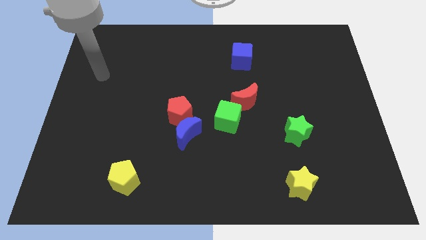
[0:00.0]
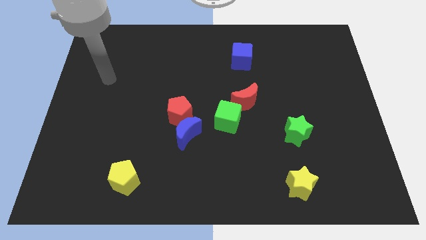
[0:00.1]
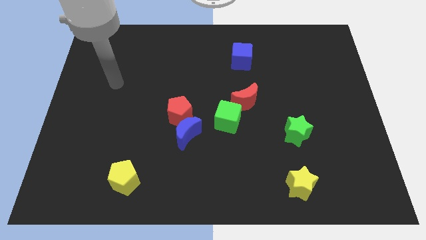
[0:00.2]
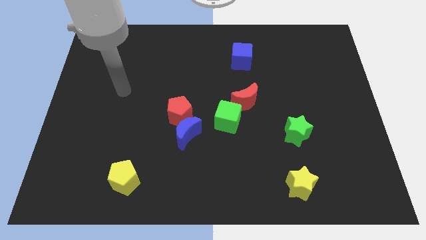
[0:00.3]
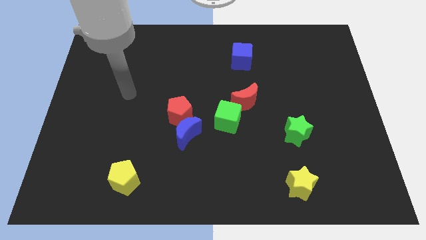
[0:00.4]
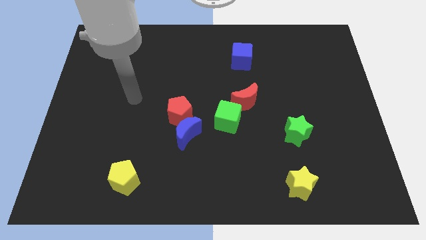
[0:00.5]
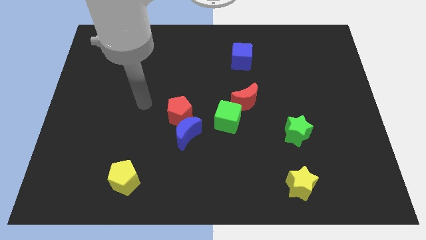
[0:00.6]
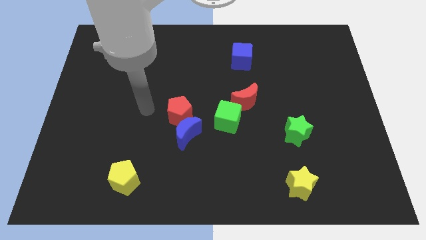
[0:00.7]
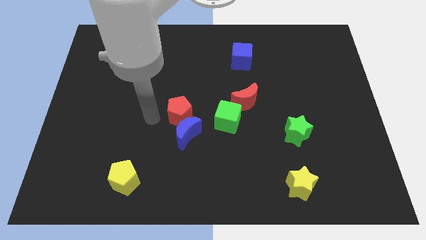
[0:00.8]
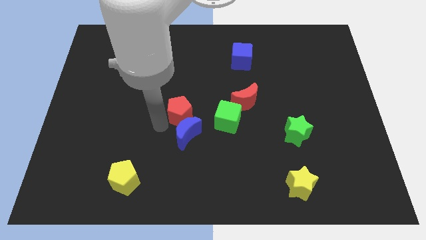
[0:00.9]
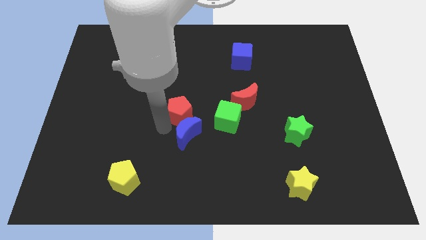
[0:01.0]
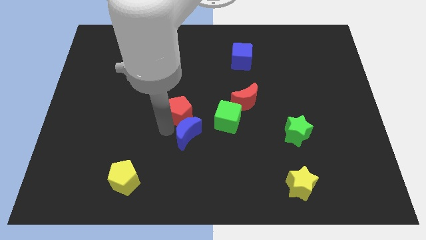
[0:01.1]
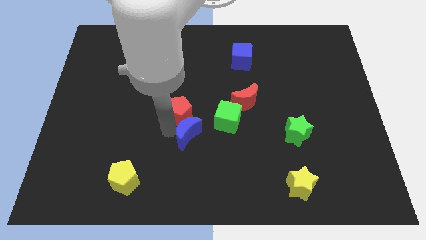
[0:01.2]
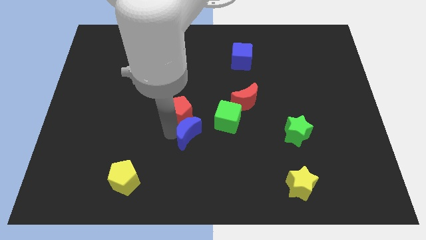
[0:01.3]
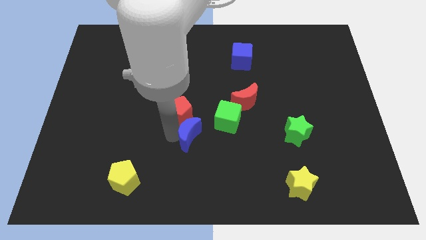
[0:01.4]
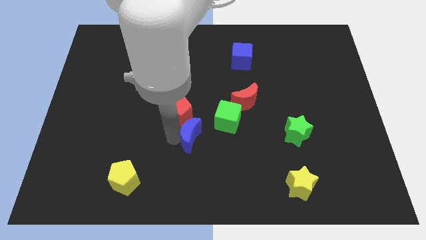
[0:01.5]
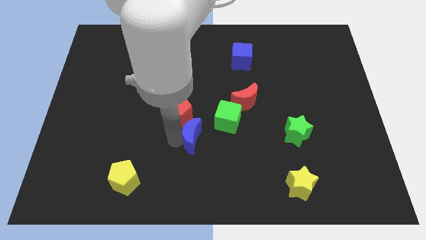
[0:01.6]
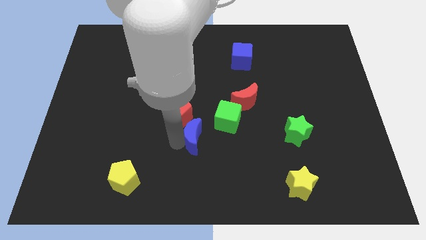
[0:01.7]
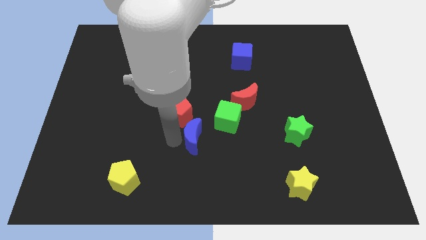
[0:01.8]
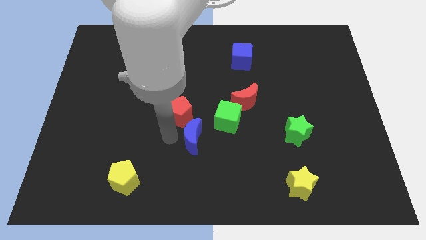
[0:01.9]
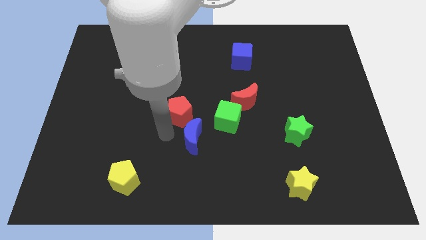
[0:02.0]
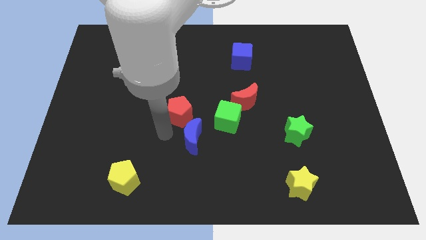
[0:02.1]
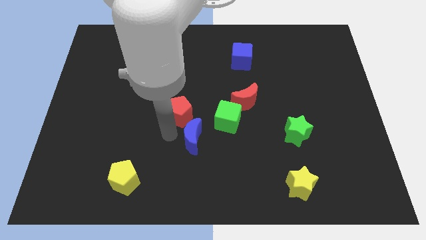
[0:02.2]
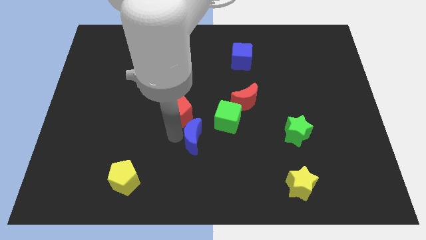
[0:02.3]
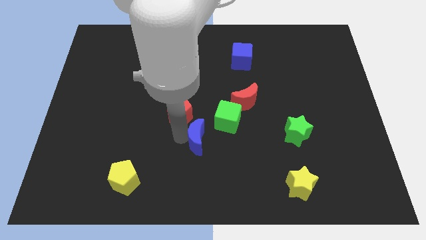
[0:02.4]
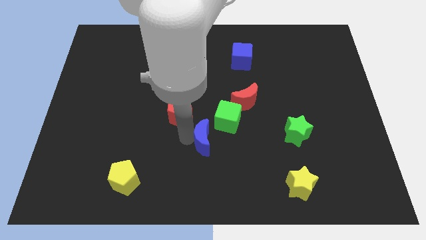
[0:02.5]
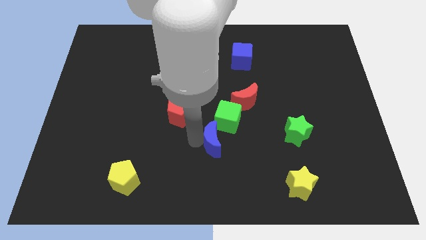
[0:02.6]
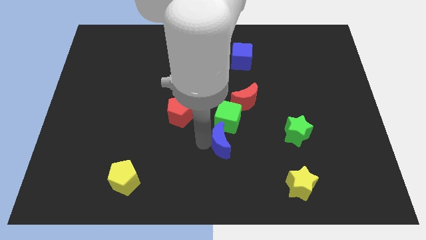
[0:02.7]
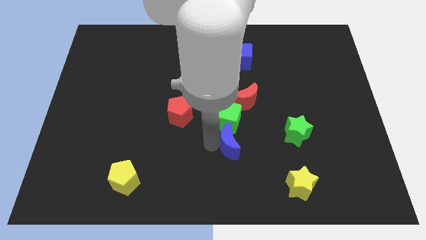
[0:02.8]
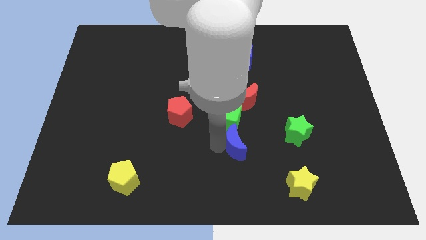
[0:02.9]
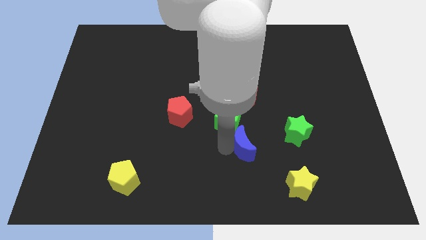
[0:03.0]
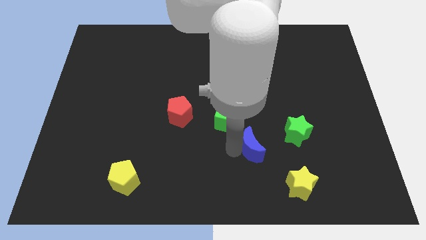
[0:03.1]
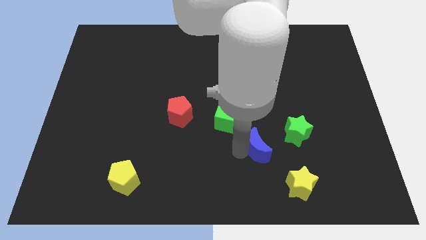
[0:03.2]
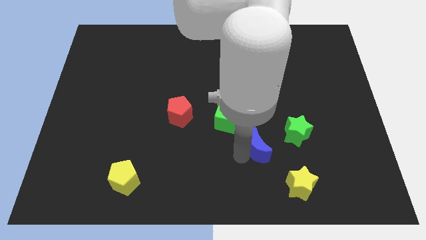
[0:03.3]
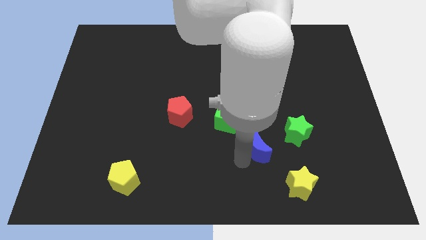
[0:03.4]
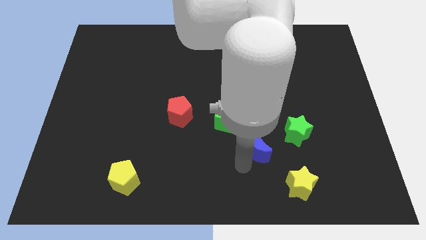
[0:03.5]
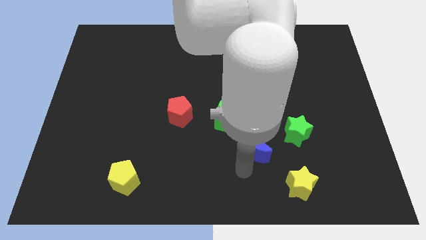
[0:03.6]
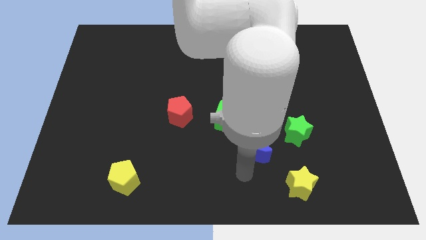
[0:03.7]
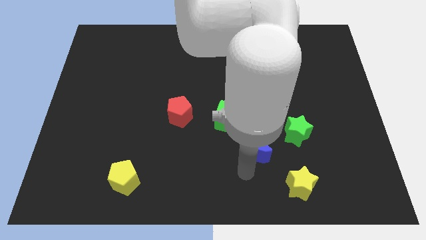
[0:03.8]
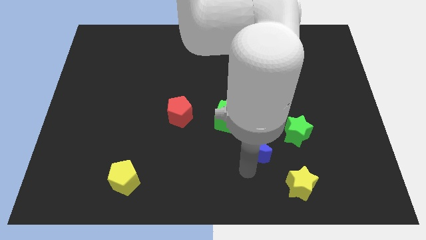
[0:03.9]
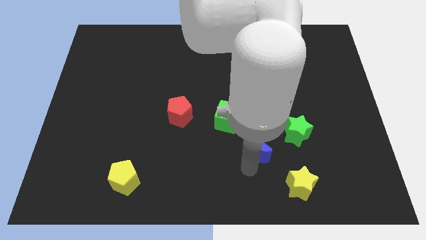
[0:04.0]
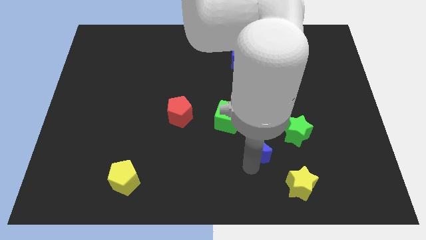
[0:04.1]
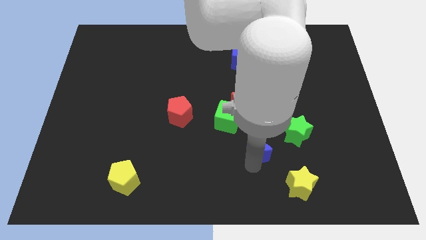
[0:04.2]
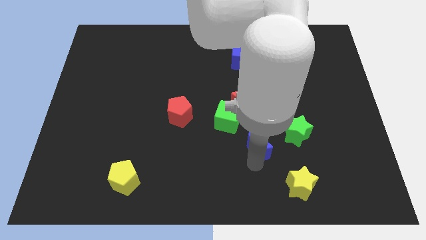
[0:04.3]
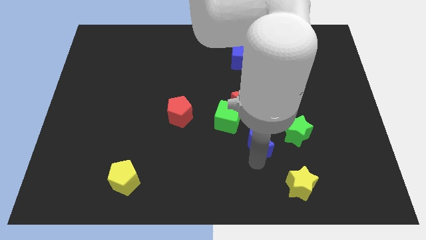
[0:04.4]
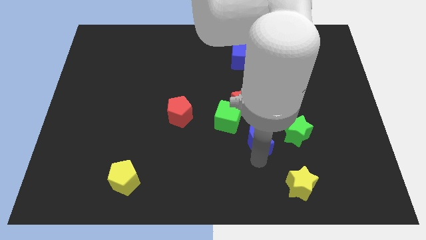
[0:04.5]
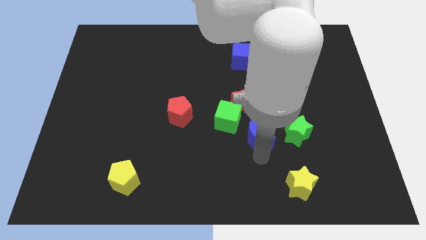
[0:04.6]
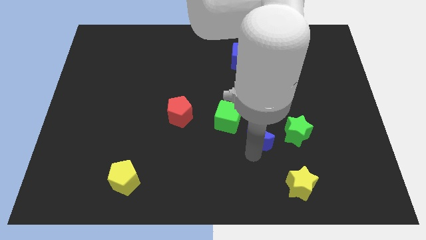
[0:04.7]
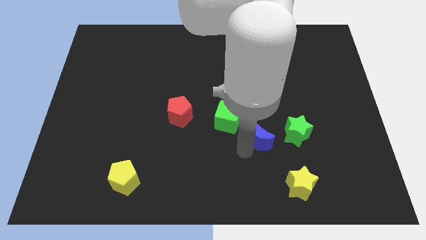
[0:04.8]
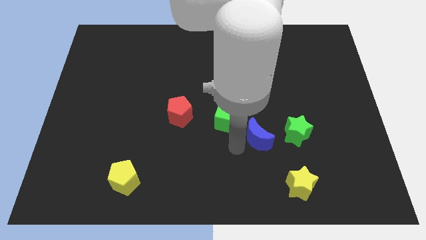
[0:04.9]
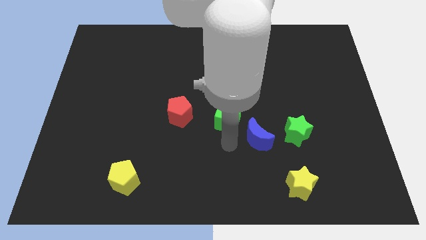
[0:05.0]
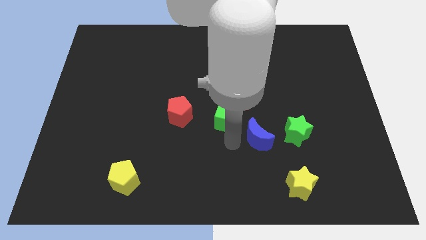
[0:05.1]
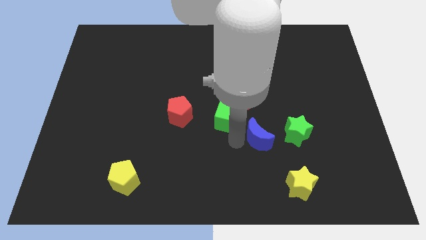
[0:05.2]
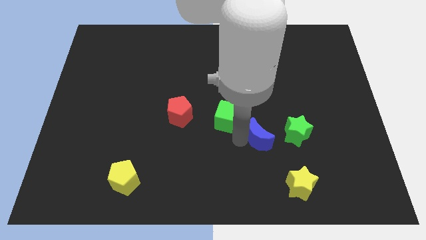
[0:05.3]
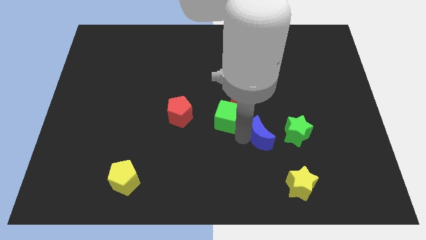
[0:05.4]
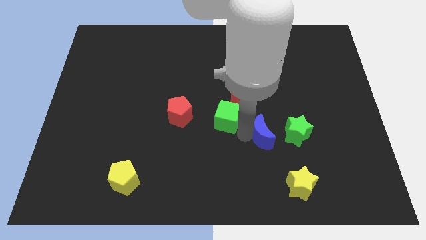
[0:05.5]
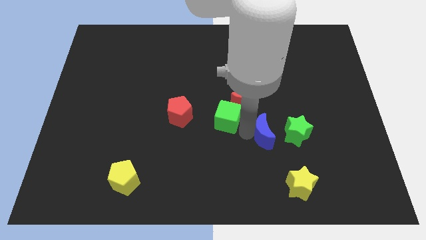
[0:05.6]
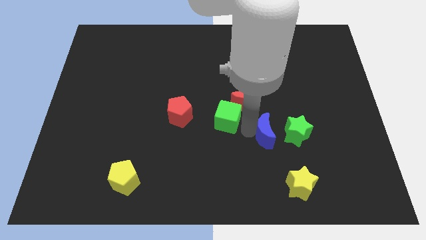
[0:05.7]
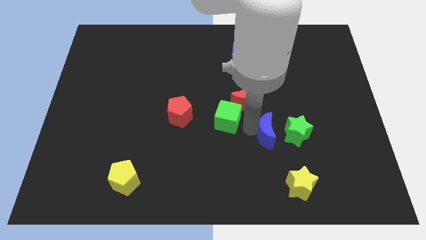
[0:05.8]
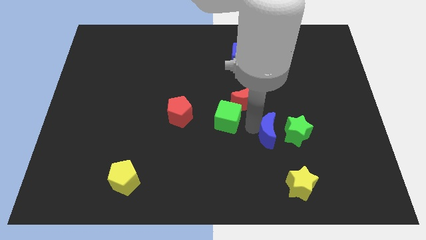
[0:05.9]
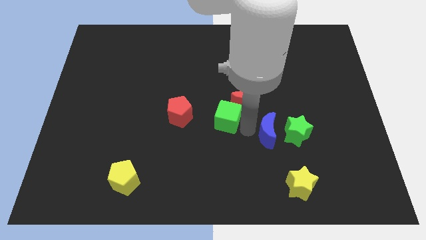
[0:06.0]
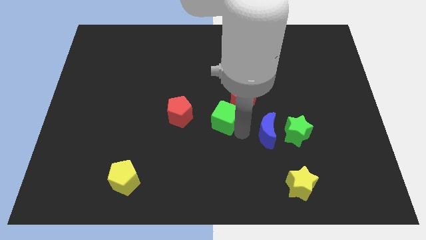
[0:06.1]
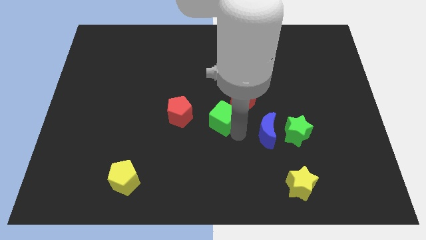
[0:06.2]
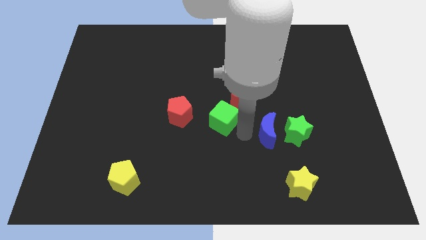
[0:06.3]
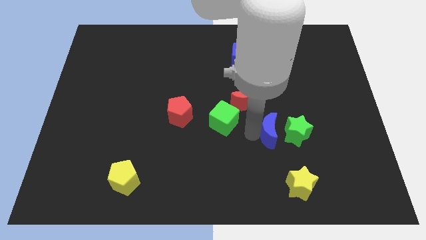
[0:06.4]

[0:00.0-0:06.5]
move the blue moon next to the green star

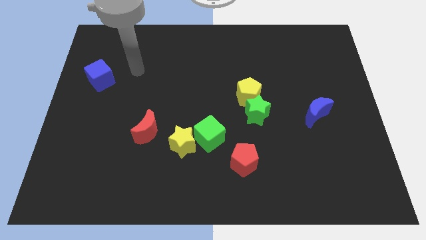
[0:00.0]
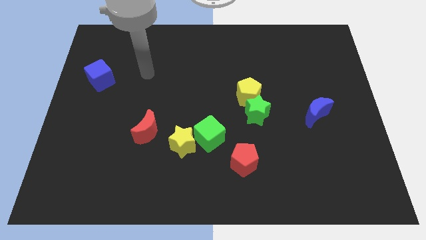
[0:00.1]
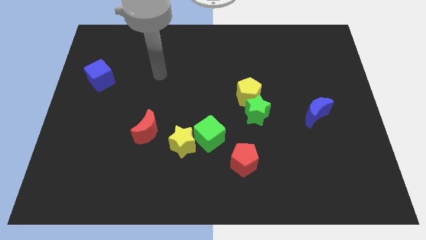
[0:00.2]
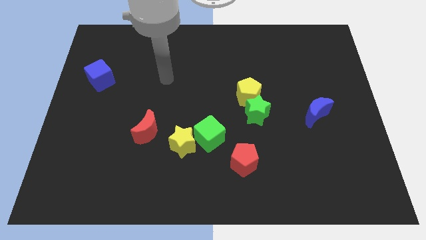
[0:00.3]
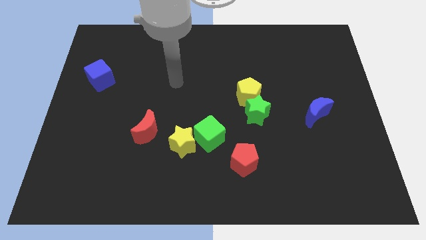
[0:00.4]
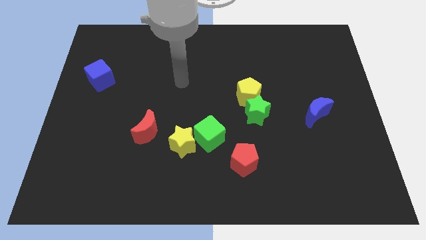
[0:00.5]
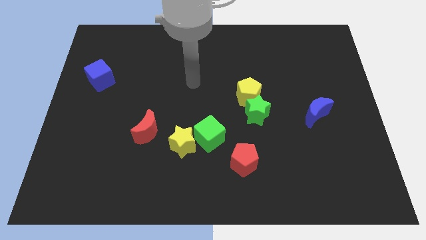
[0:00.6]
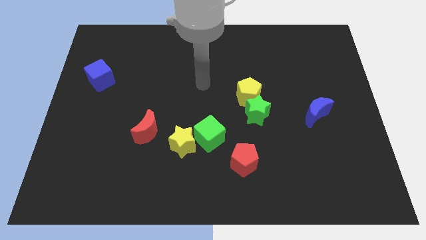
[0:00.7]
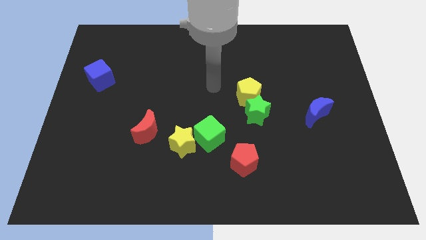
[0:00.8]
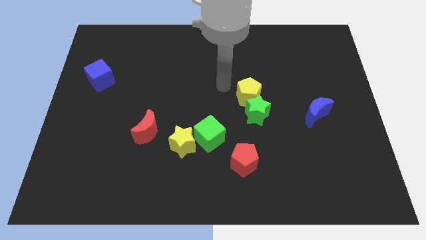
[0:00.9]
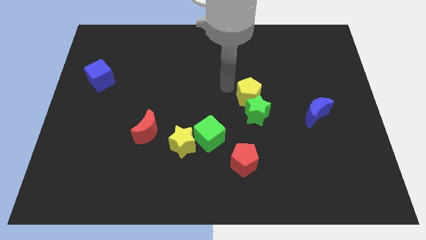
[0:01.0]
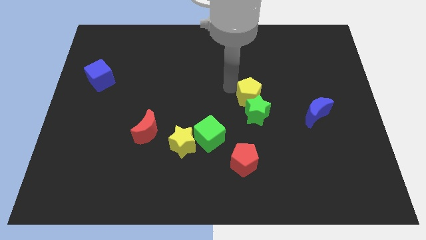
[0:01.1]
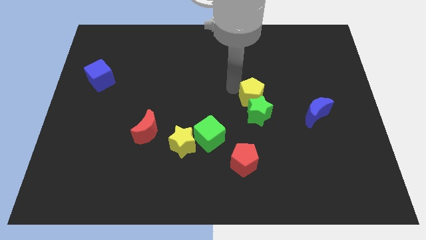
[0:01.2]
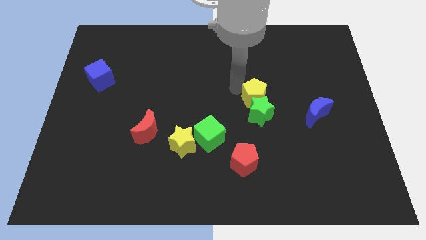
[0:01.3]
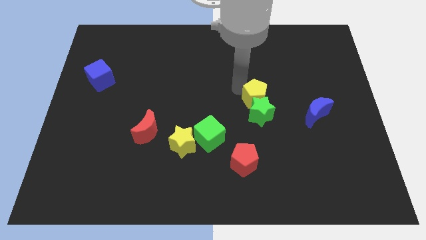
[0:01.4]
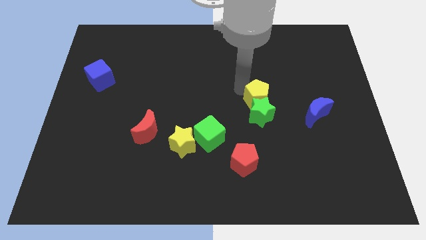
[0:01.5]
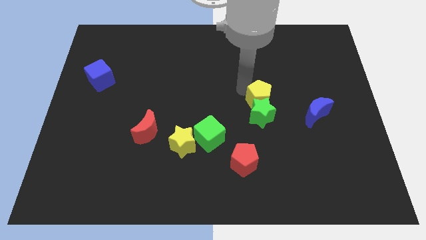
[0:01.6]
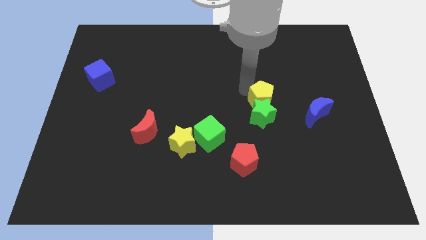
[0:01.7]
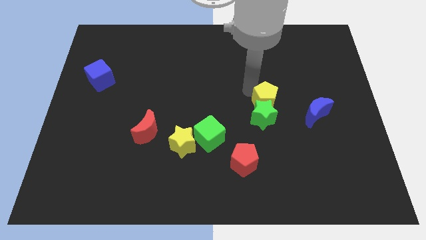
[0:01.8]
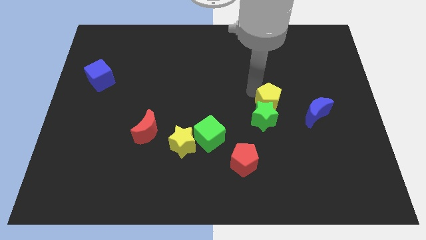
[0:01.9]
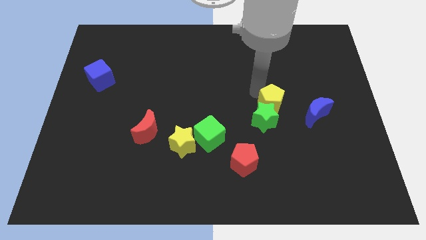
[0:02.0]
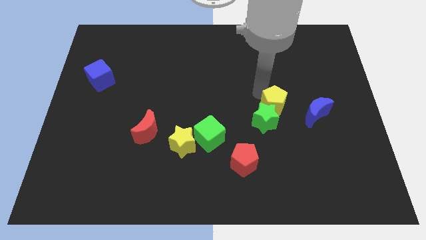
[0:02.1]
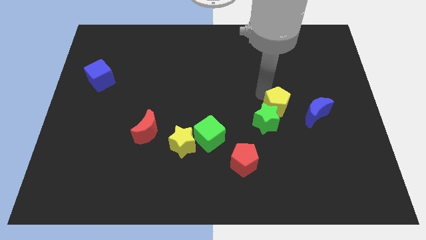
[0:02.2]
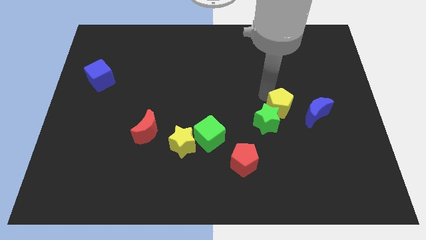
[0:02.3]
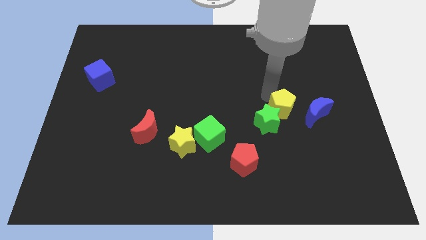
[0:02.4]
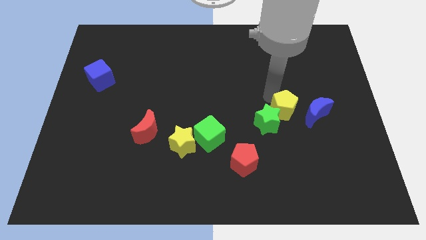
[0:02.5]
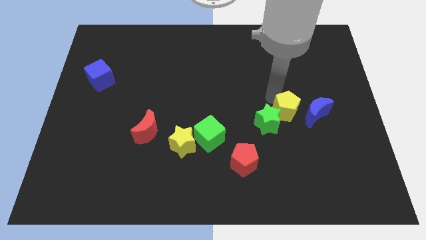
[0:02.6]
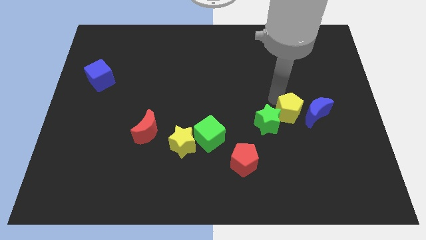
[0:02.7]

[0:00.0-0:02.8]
slide the yellow pentagon close to the blue moon
